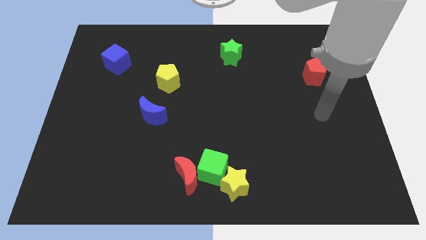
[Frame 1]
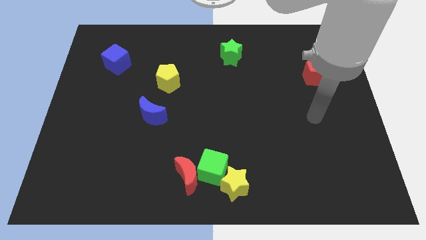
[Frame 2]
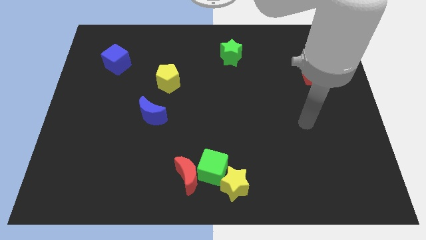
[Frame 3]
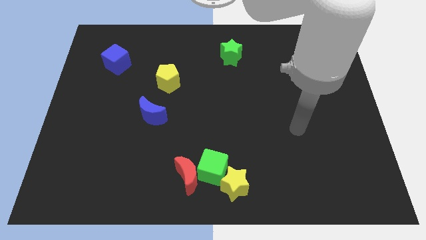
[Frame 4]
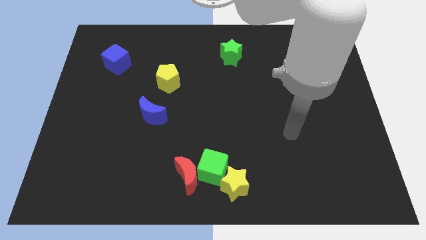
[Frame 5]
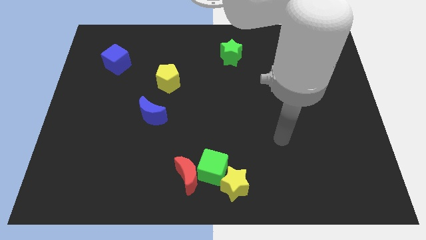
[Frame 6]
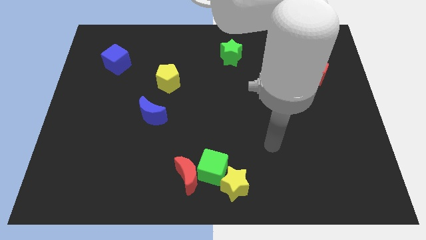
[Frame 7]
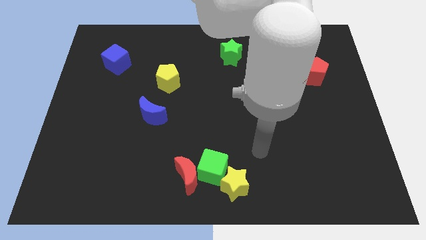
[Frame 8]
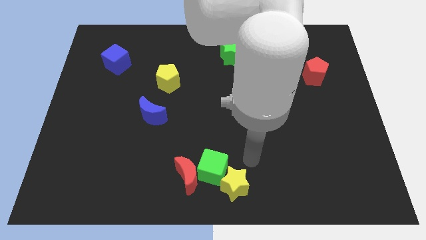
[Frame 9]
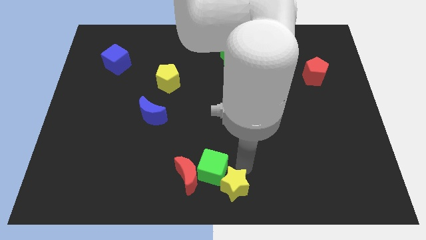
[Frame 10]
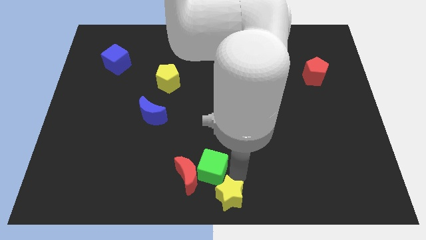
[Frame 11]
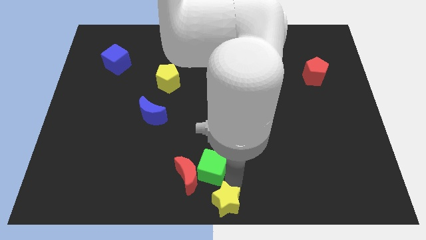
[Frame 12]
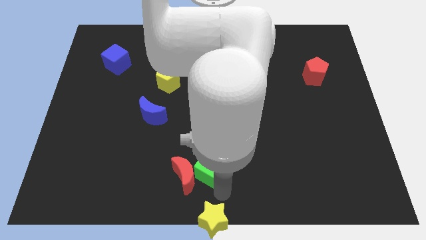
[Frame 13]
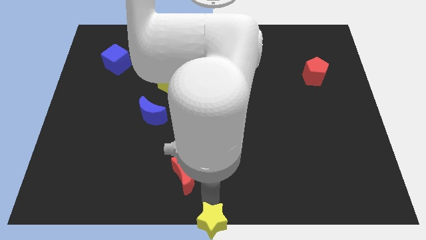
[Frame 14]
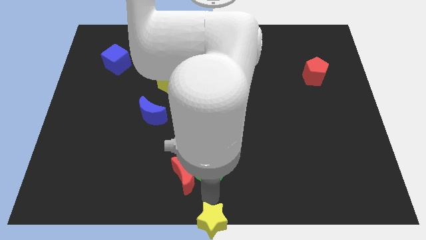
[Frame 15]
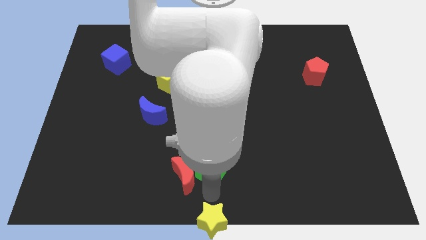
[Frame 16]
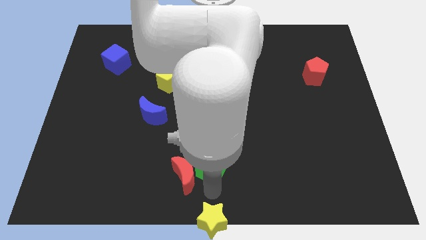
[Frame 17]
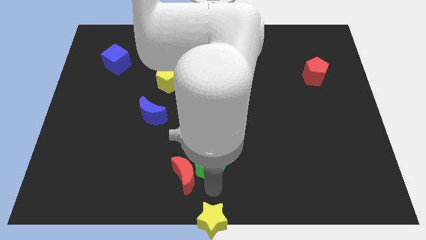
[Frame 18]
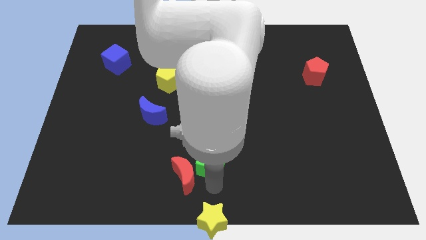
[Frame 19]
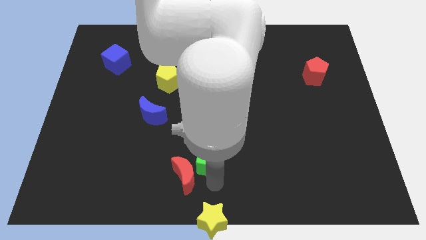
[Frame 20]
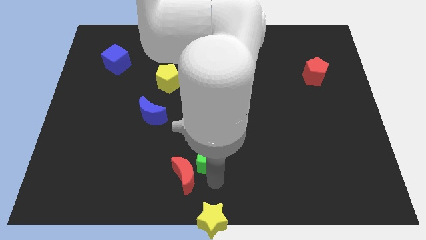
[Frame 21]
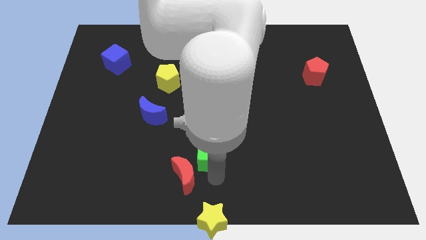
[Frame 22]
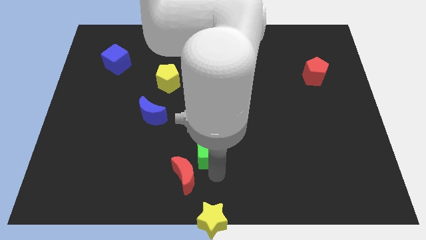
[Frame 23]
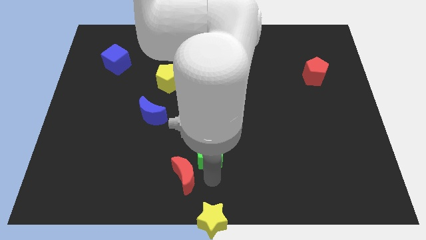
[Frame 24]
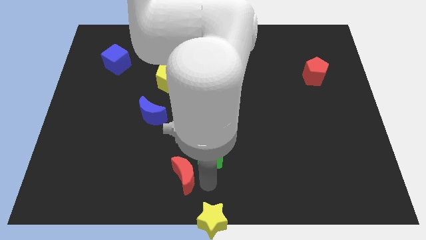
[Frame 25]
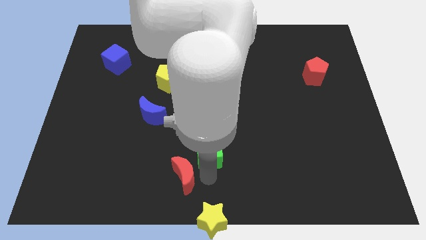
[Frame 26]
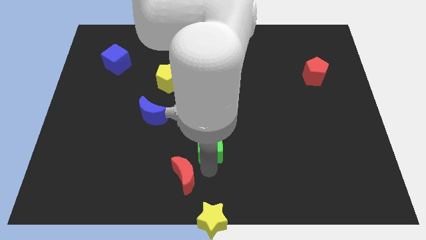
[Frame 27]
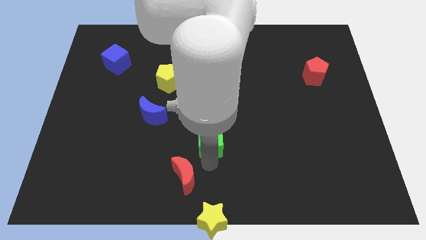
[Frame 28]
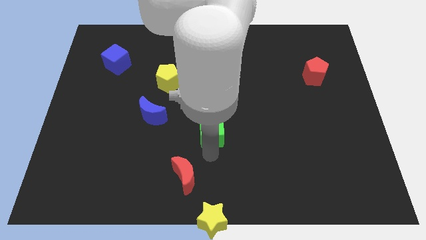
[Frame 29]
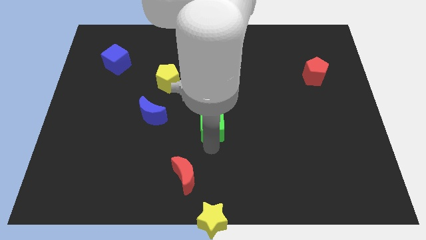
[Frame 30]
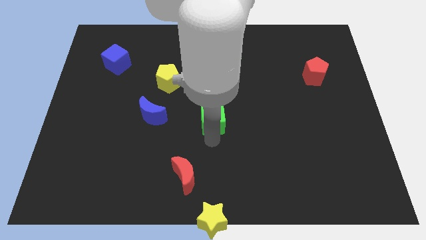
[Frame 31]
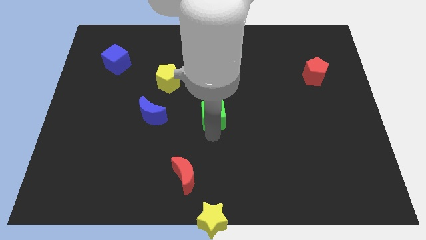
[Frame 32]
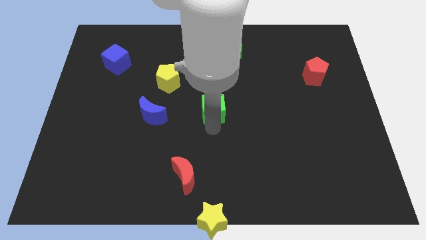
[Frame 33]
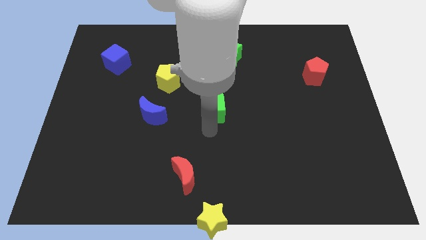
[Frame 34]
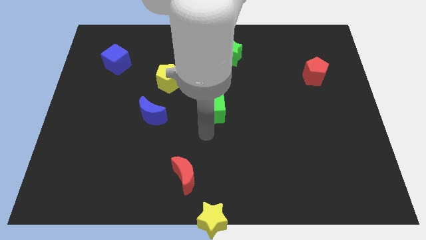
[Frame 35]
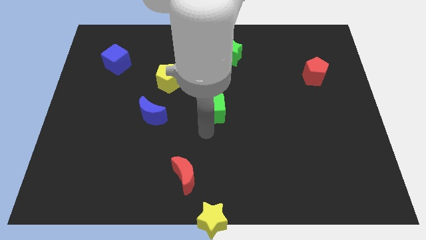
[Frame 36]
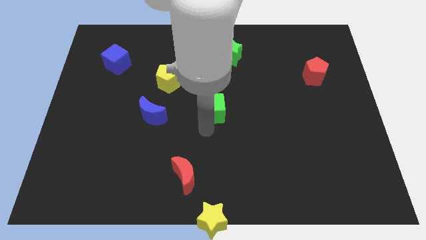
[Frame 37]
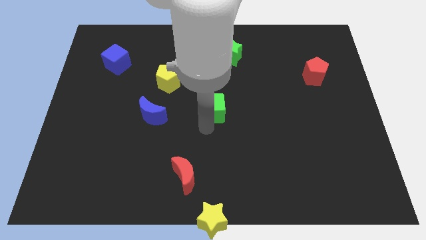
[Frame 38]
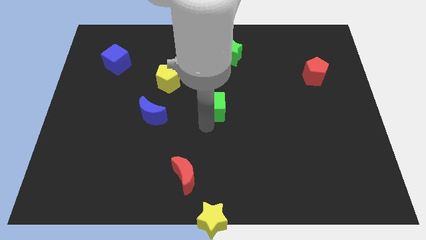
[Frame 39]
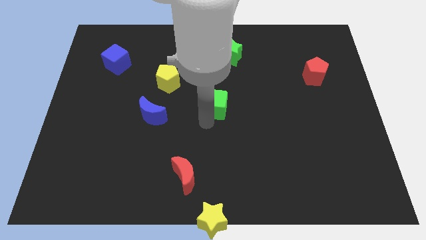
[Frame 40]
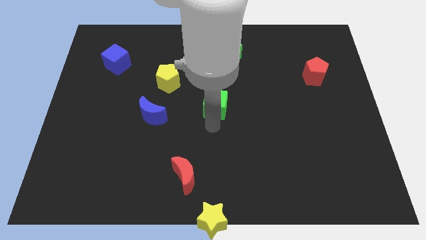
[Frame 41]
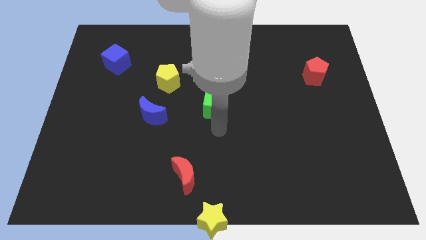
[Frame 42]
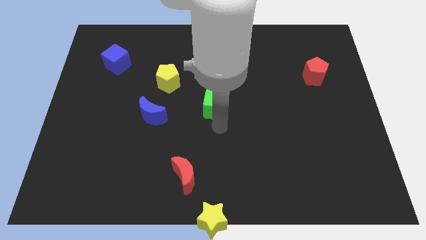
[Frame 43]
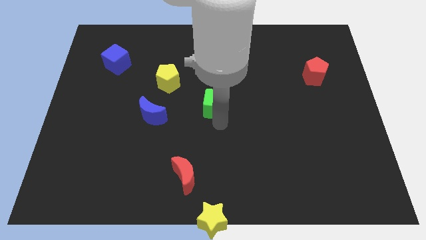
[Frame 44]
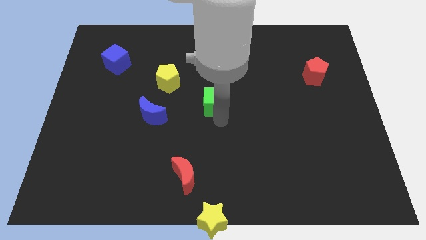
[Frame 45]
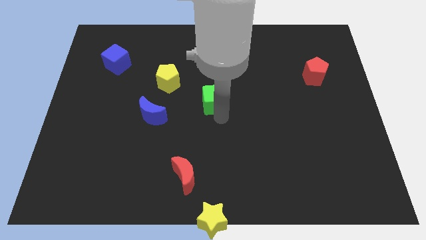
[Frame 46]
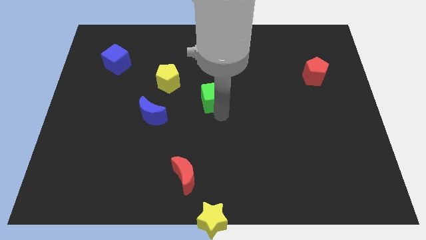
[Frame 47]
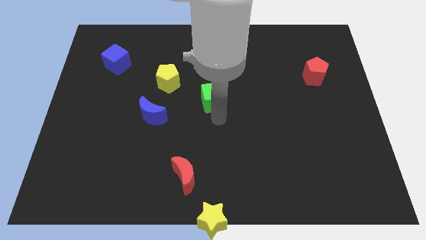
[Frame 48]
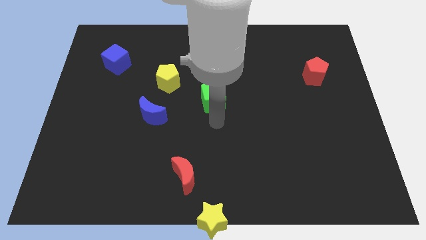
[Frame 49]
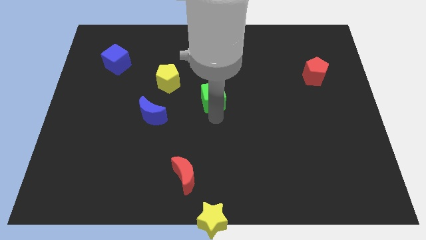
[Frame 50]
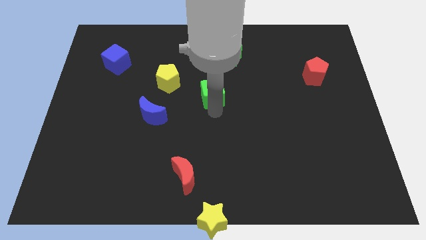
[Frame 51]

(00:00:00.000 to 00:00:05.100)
slide the green cube to the right side of the yellow pentagon

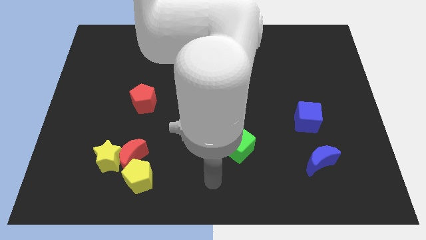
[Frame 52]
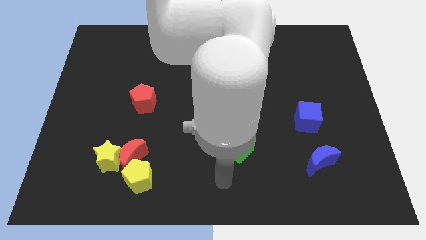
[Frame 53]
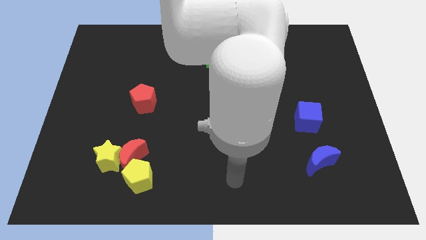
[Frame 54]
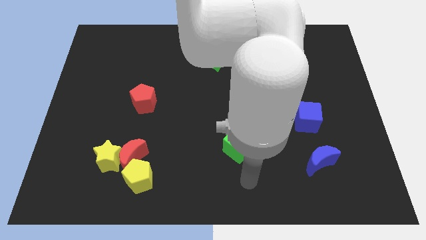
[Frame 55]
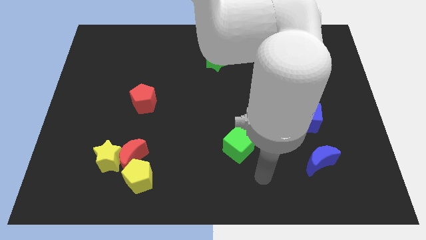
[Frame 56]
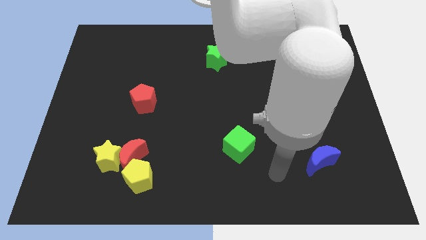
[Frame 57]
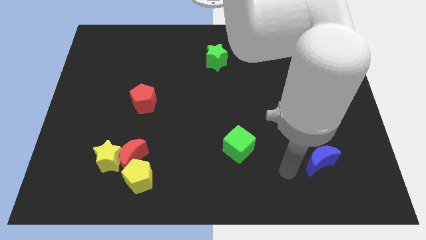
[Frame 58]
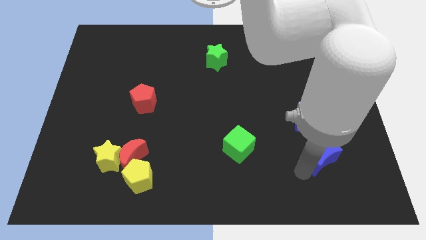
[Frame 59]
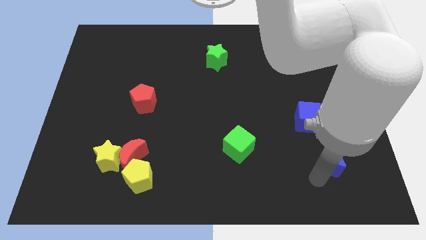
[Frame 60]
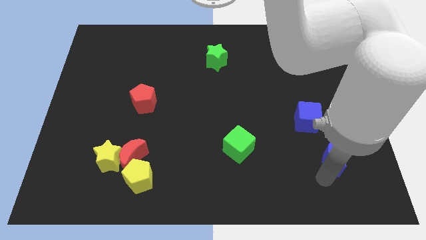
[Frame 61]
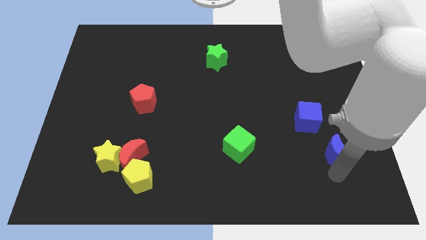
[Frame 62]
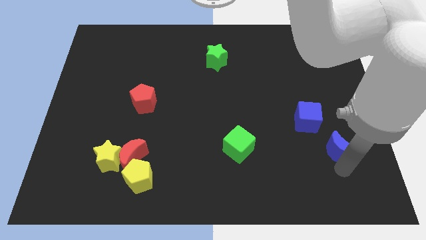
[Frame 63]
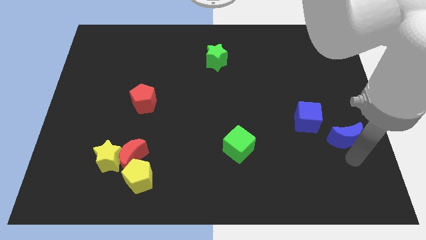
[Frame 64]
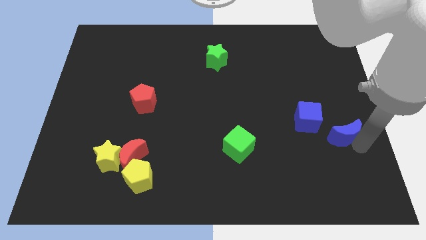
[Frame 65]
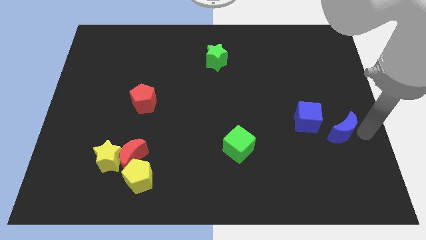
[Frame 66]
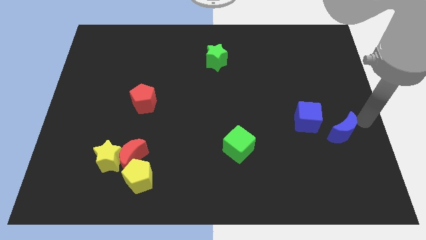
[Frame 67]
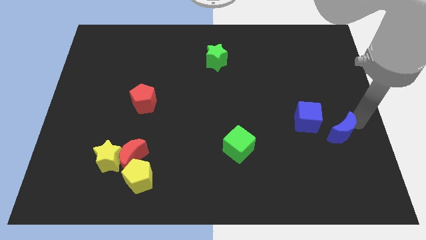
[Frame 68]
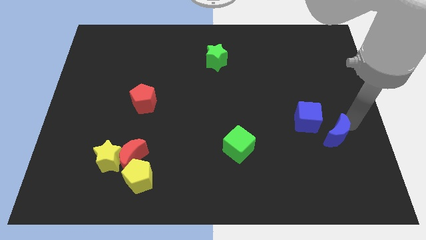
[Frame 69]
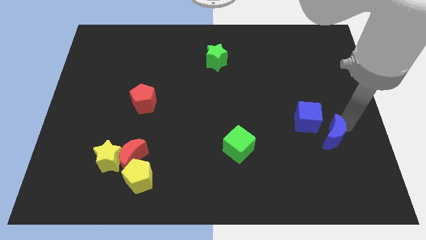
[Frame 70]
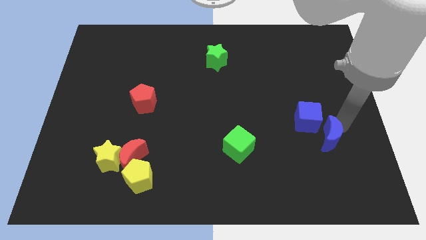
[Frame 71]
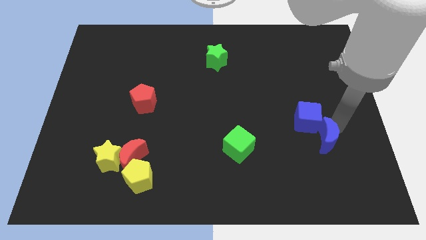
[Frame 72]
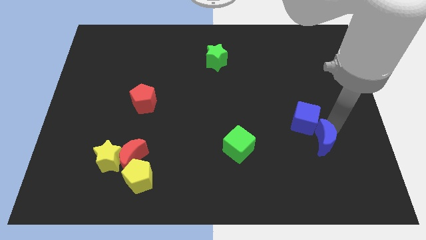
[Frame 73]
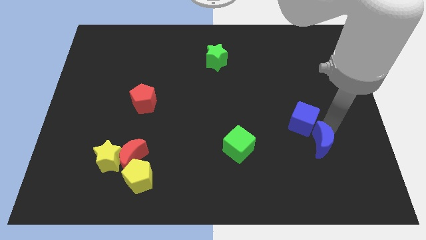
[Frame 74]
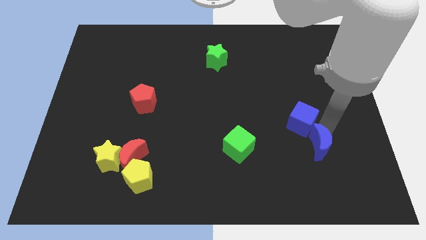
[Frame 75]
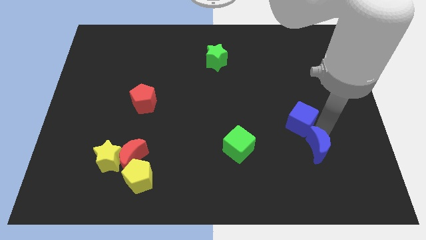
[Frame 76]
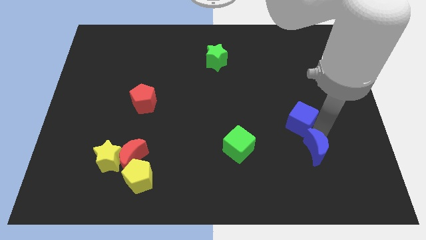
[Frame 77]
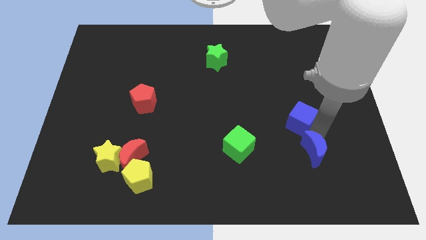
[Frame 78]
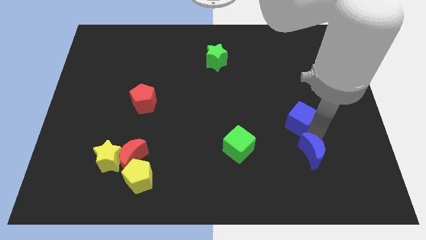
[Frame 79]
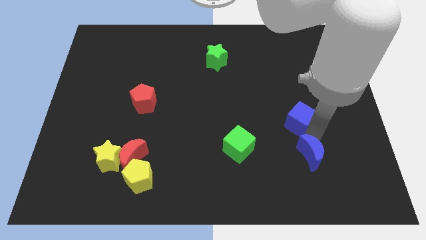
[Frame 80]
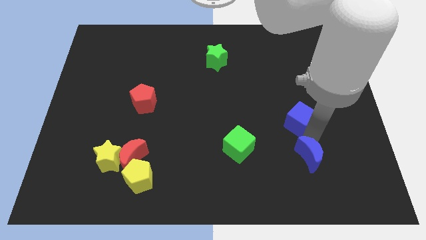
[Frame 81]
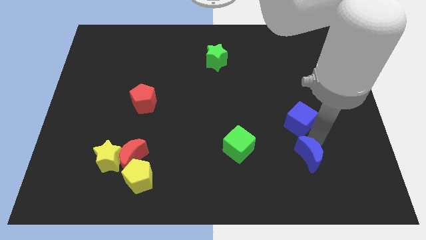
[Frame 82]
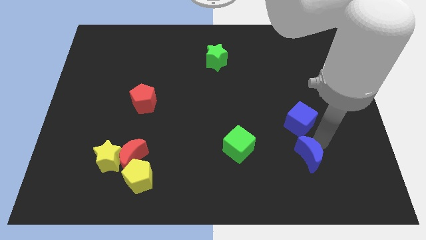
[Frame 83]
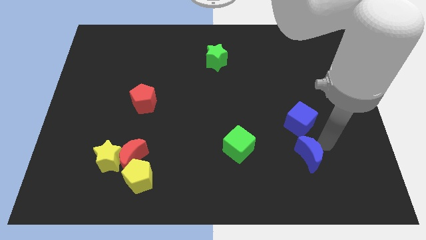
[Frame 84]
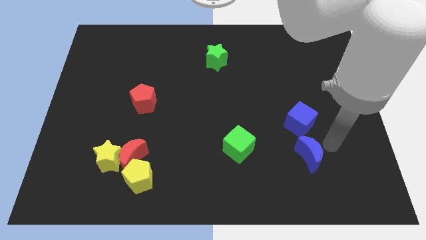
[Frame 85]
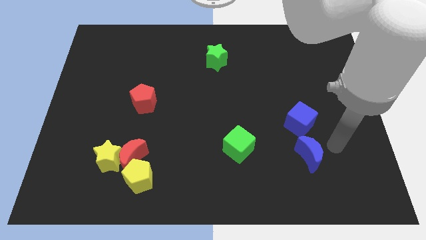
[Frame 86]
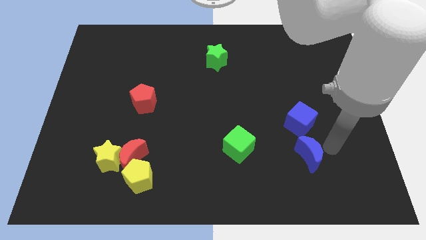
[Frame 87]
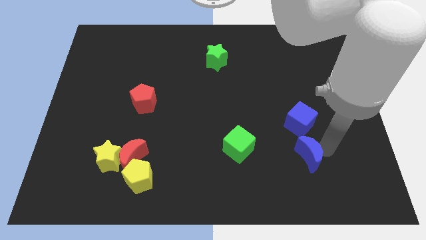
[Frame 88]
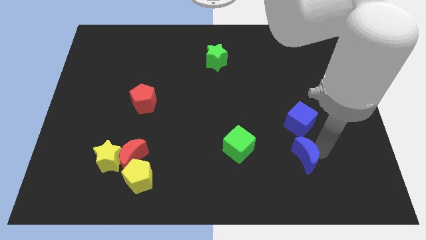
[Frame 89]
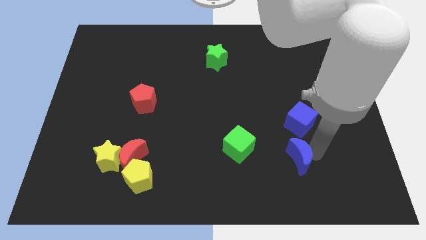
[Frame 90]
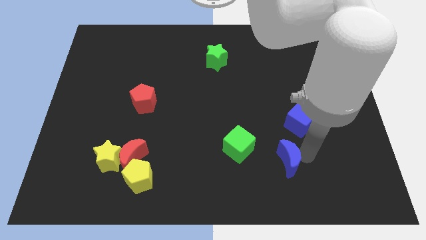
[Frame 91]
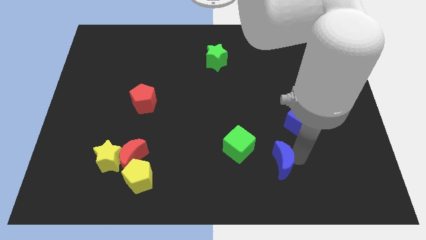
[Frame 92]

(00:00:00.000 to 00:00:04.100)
push the blue moon to the bottom right of the green cube
